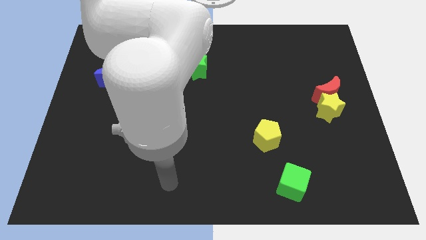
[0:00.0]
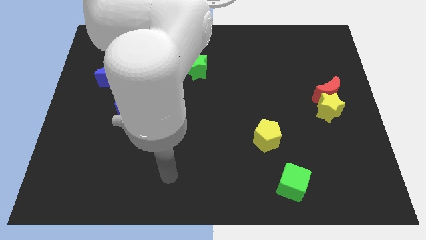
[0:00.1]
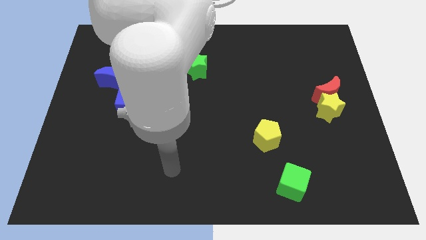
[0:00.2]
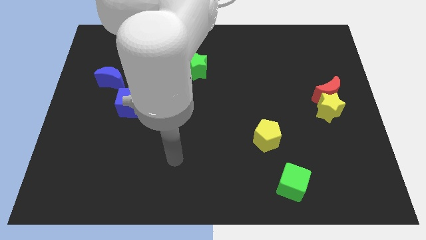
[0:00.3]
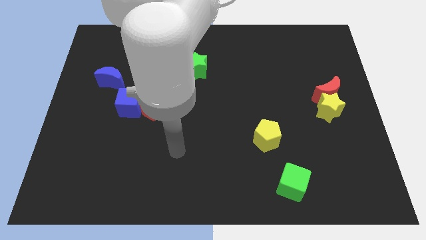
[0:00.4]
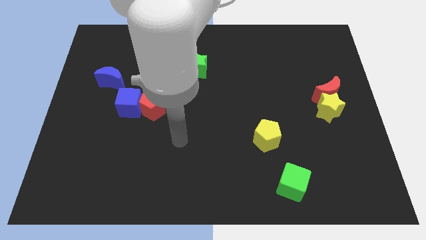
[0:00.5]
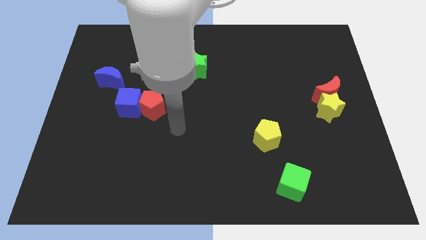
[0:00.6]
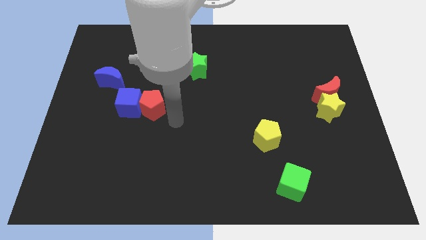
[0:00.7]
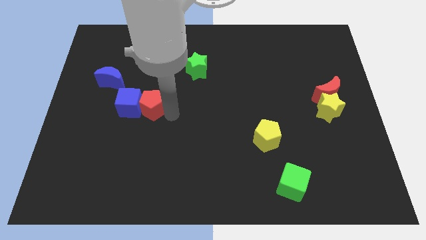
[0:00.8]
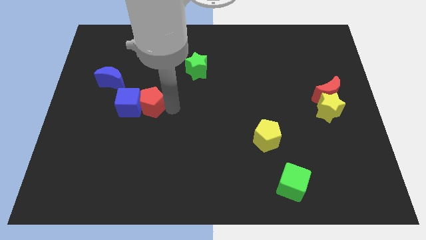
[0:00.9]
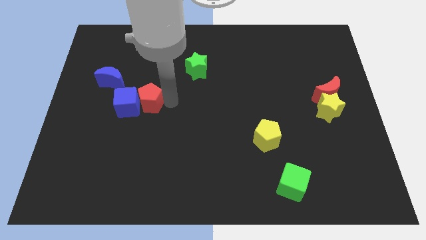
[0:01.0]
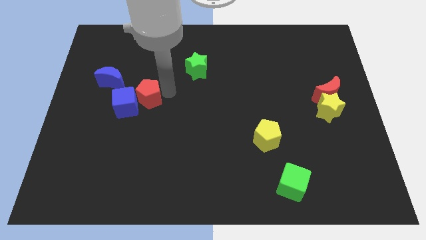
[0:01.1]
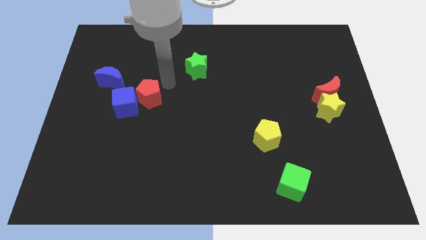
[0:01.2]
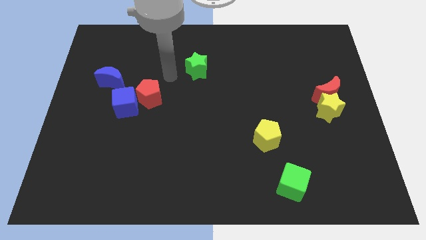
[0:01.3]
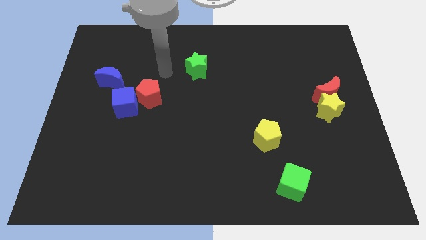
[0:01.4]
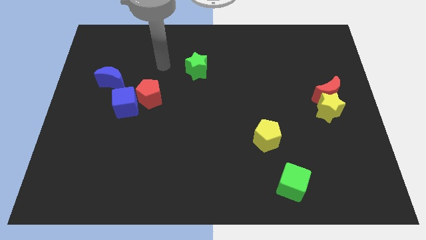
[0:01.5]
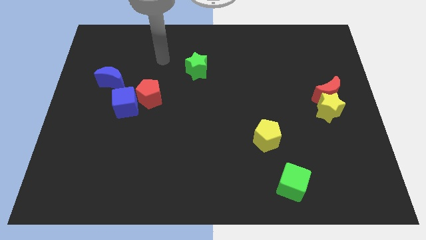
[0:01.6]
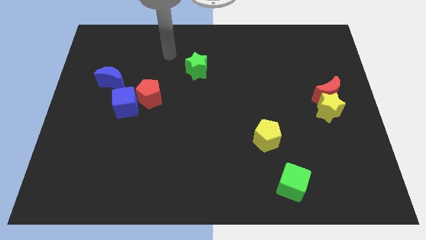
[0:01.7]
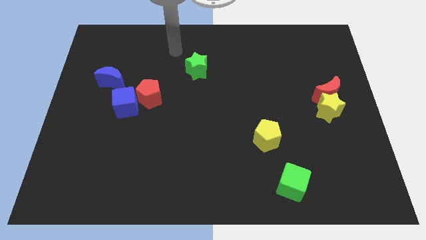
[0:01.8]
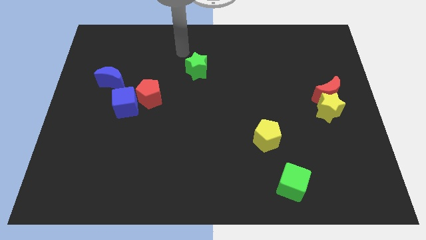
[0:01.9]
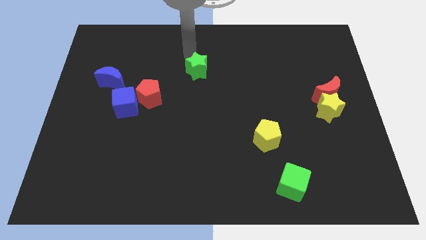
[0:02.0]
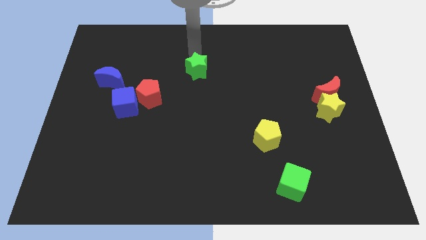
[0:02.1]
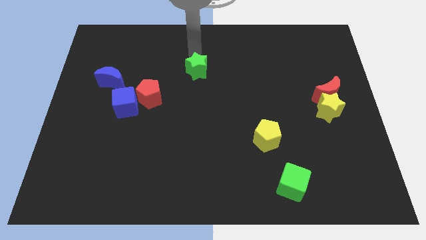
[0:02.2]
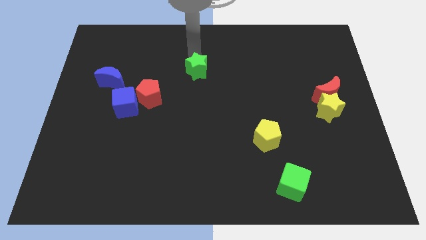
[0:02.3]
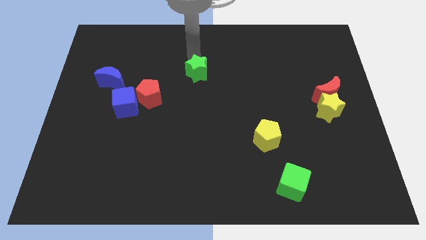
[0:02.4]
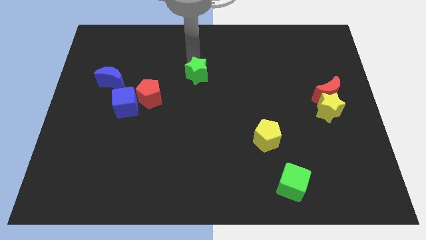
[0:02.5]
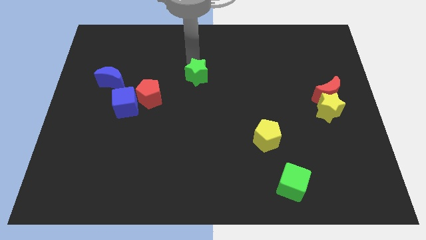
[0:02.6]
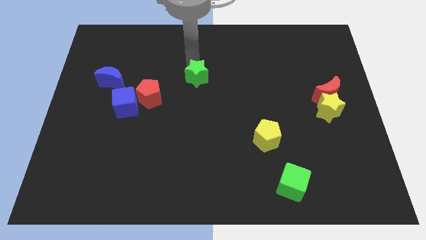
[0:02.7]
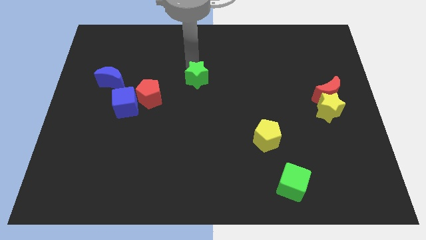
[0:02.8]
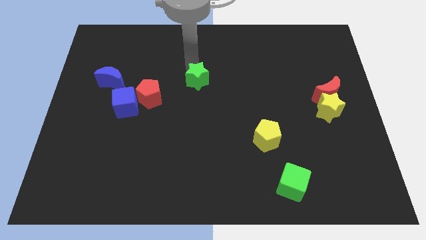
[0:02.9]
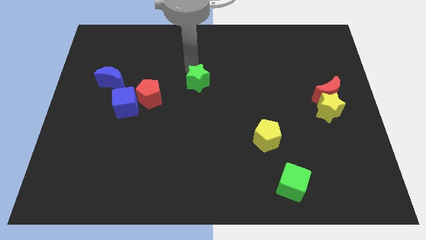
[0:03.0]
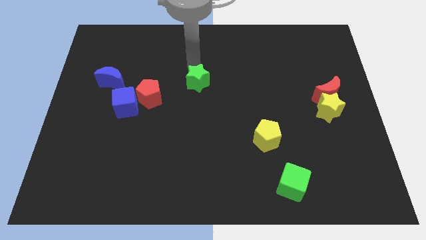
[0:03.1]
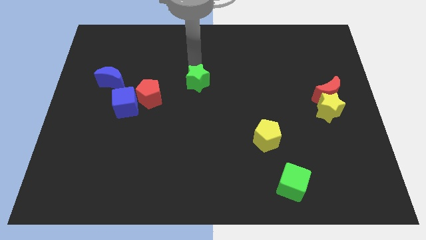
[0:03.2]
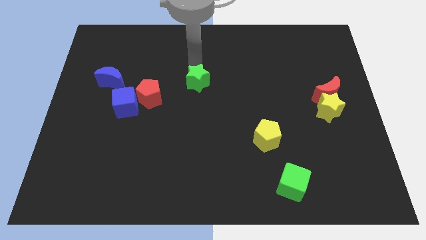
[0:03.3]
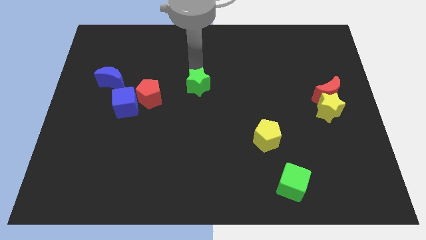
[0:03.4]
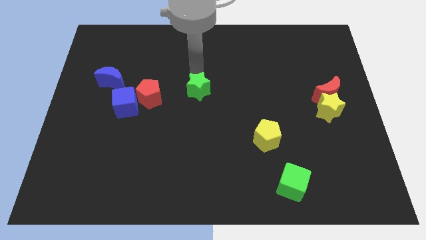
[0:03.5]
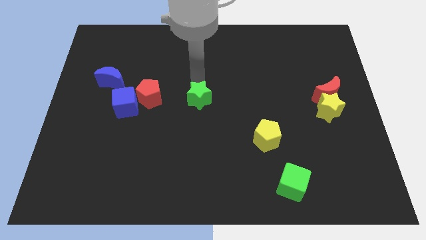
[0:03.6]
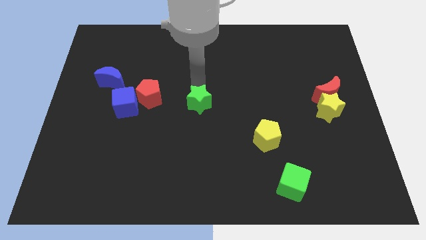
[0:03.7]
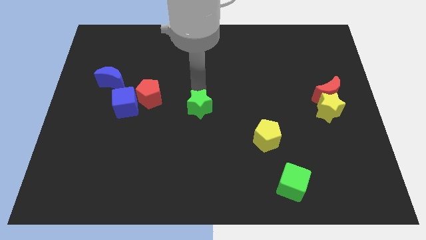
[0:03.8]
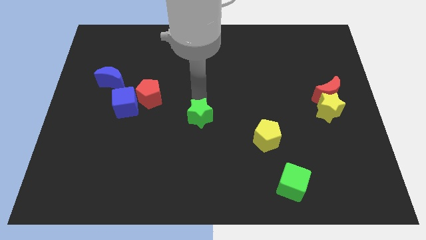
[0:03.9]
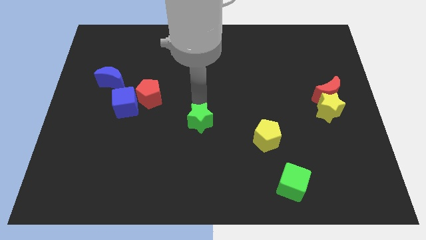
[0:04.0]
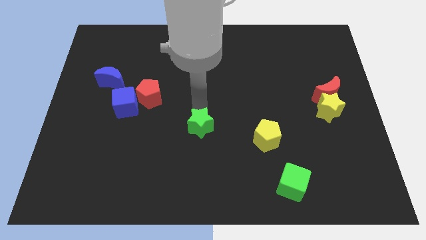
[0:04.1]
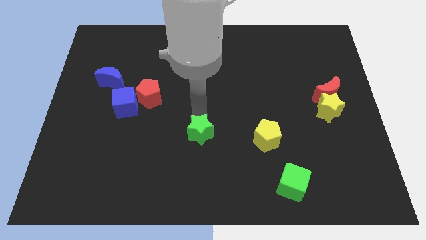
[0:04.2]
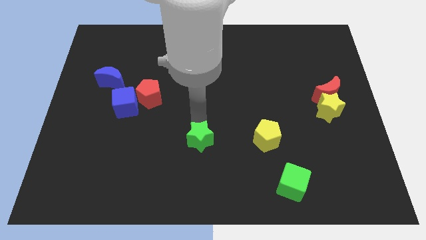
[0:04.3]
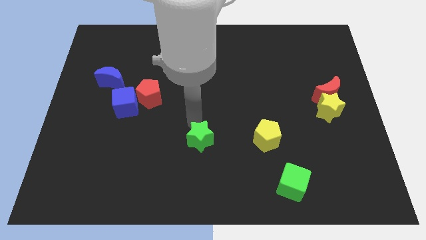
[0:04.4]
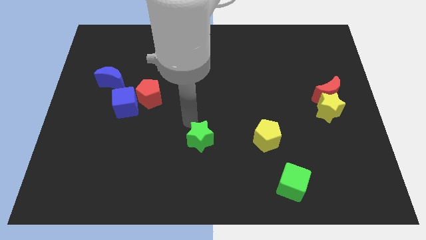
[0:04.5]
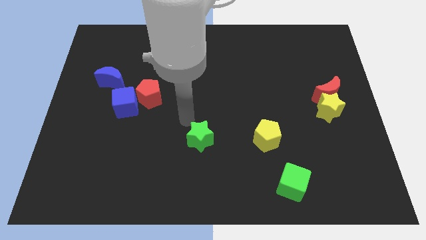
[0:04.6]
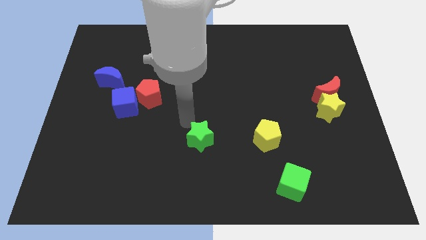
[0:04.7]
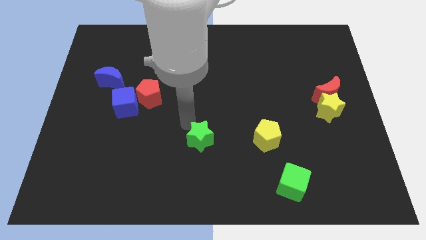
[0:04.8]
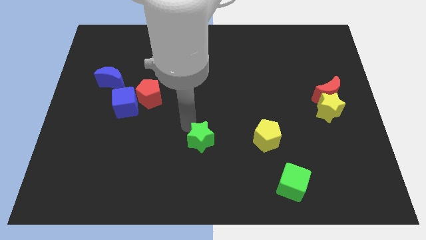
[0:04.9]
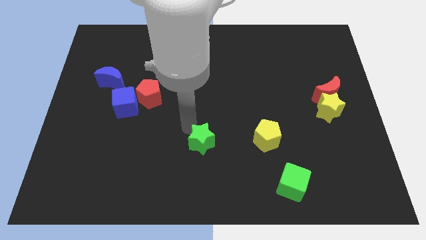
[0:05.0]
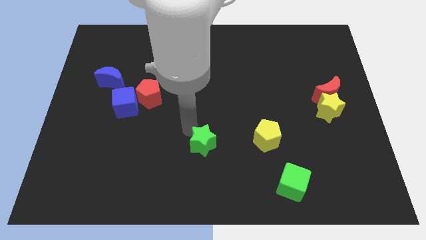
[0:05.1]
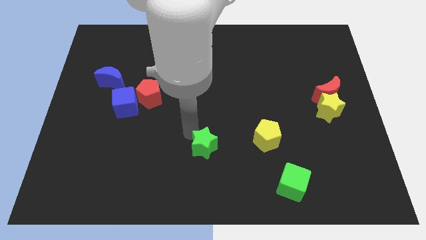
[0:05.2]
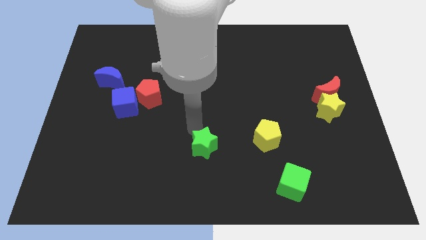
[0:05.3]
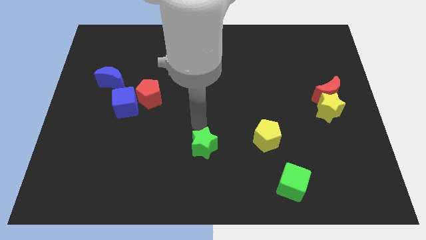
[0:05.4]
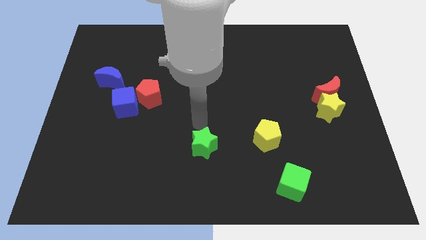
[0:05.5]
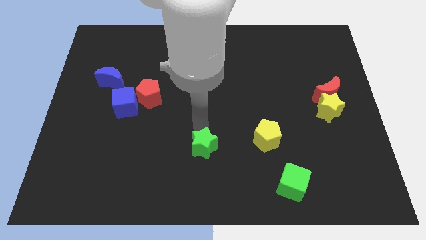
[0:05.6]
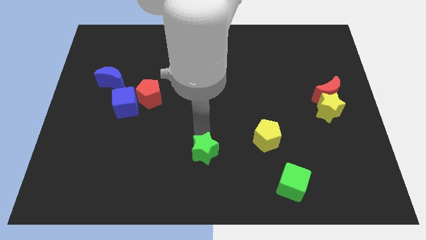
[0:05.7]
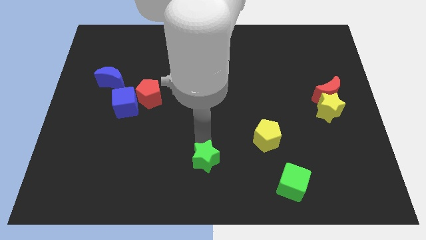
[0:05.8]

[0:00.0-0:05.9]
slide the green star to the bottom

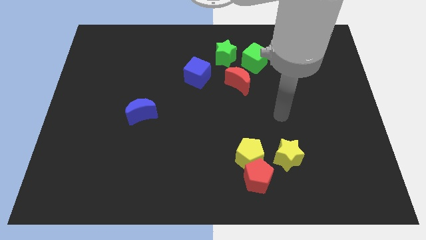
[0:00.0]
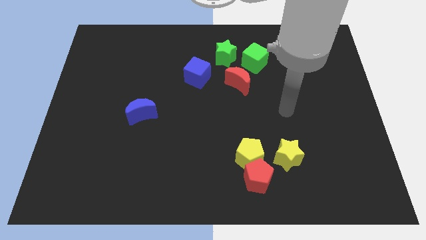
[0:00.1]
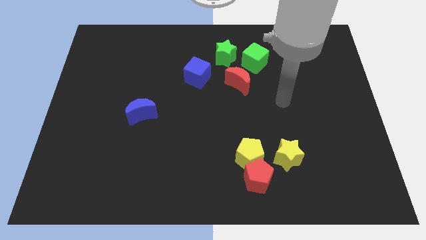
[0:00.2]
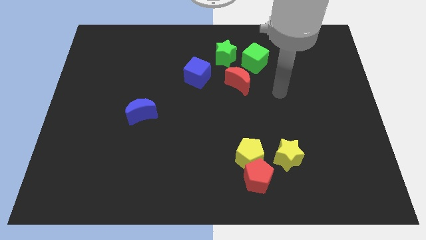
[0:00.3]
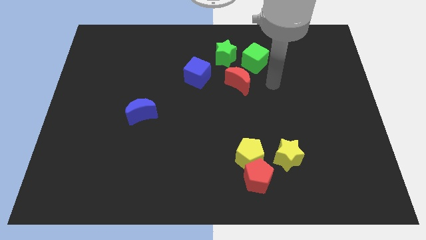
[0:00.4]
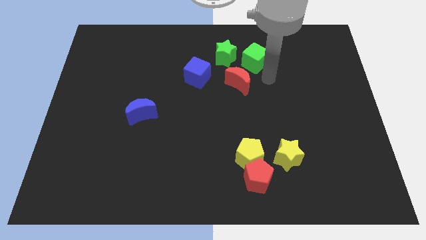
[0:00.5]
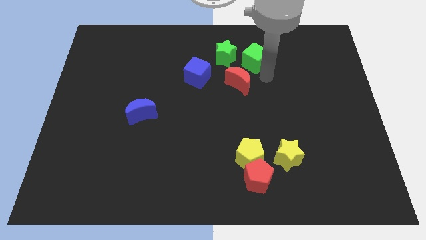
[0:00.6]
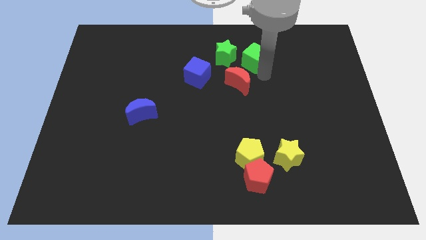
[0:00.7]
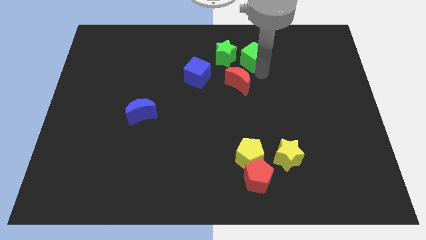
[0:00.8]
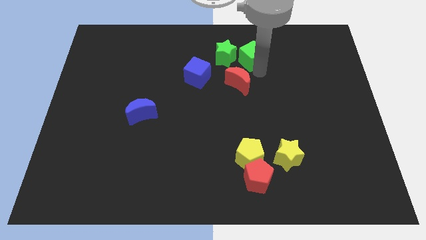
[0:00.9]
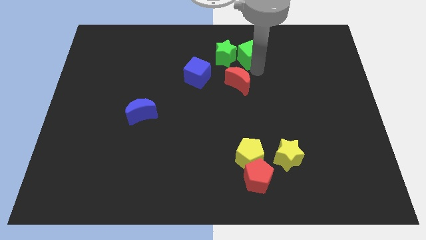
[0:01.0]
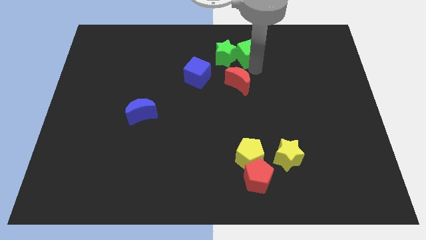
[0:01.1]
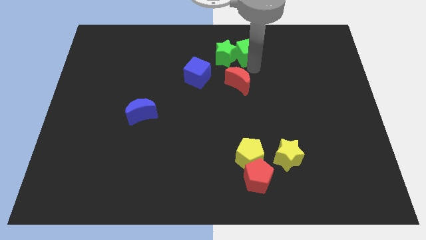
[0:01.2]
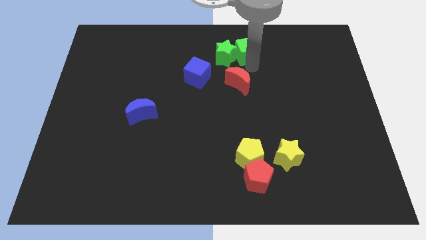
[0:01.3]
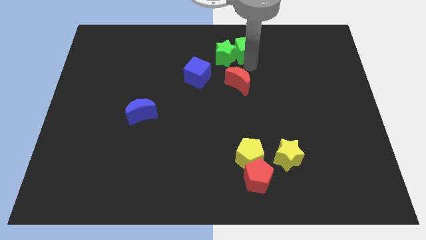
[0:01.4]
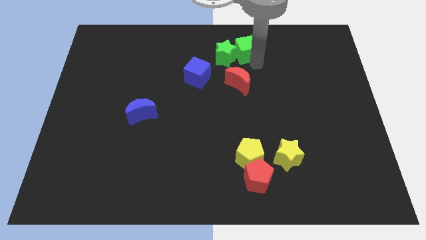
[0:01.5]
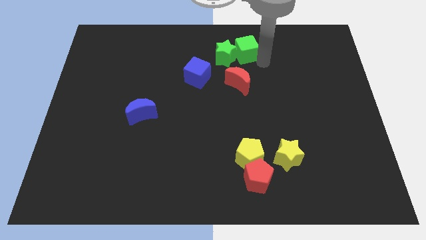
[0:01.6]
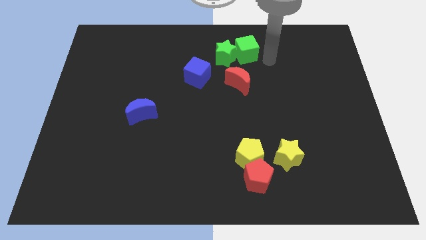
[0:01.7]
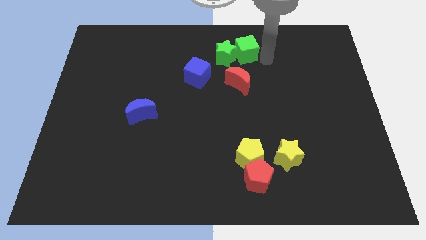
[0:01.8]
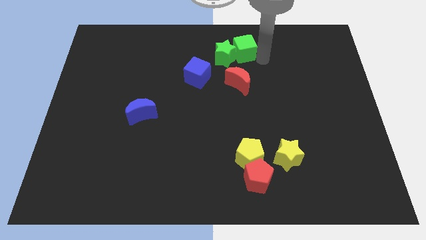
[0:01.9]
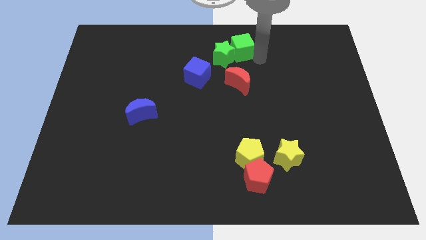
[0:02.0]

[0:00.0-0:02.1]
move the green cube to the top
